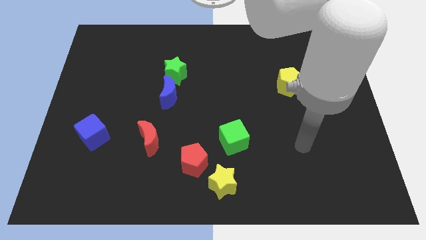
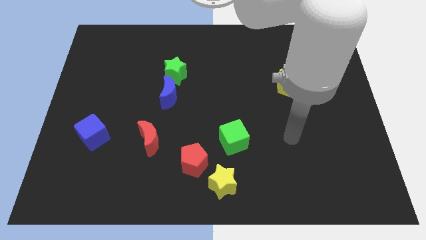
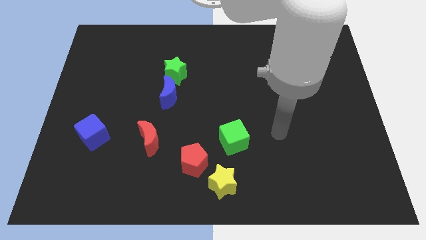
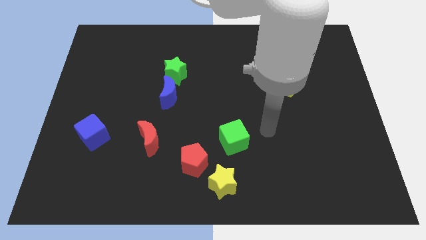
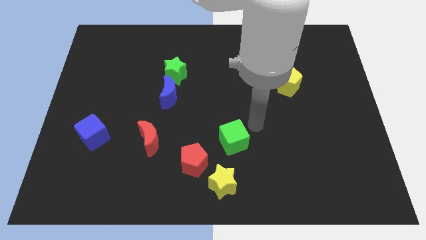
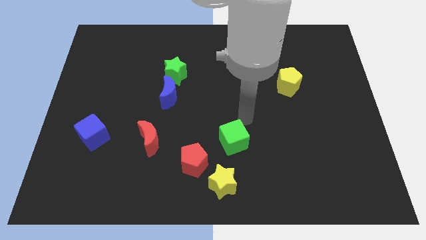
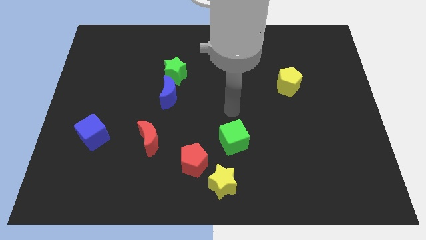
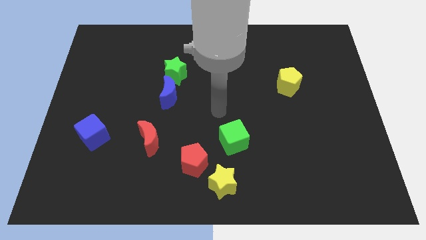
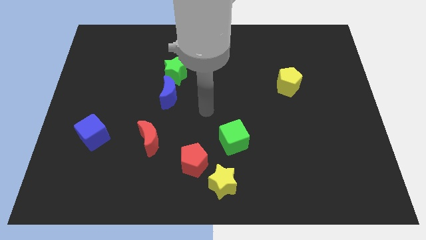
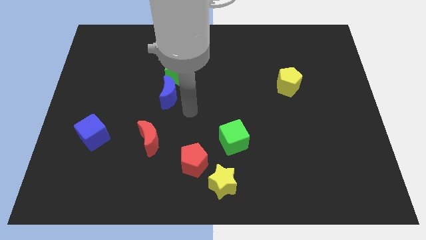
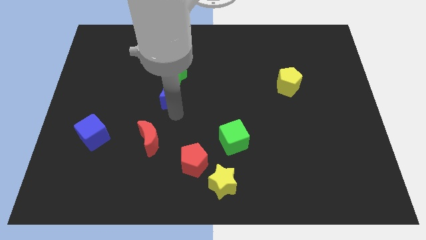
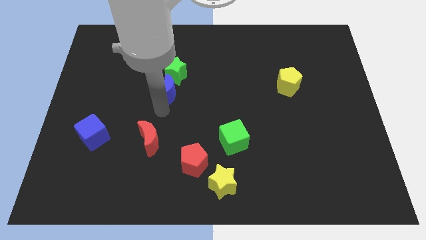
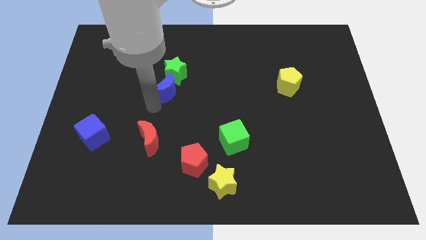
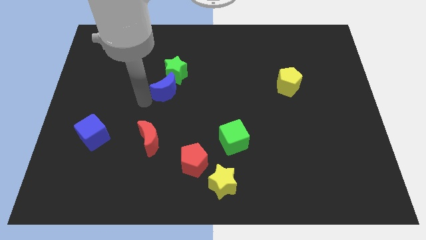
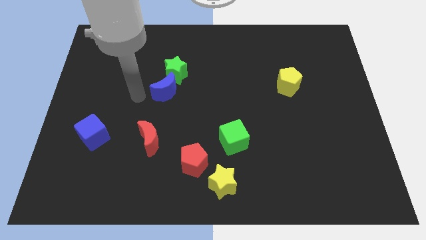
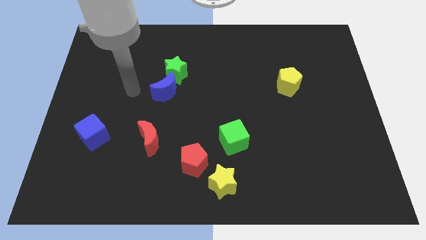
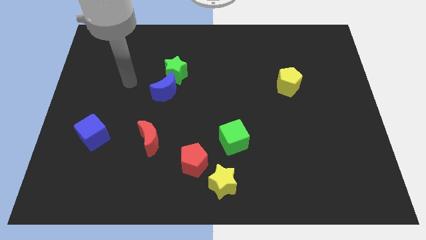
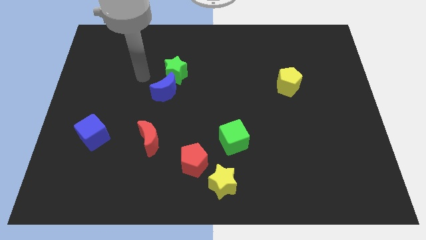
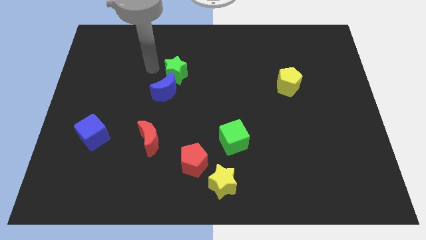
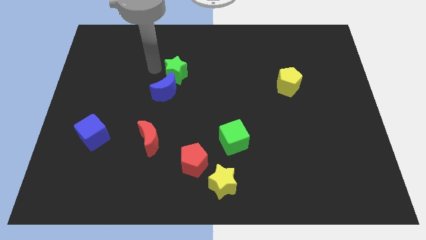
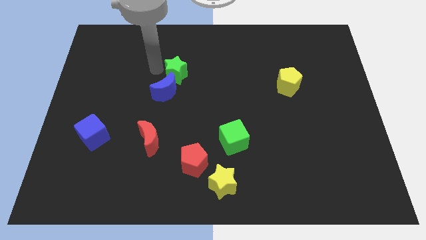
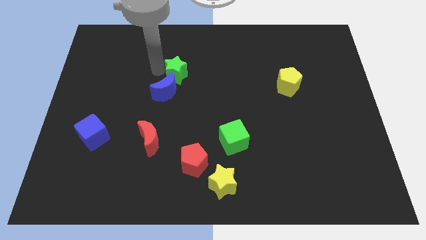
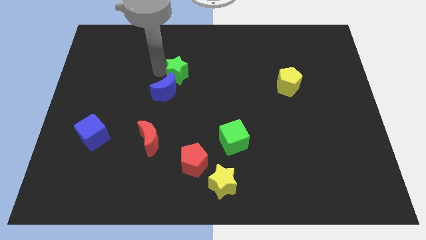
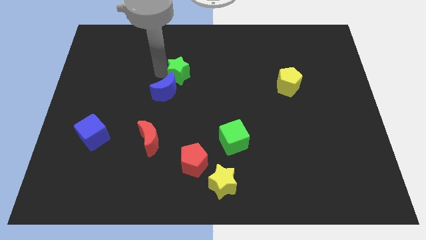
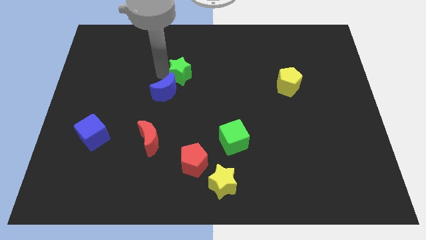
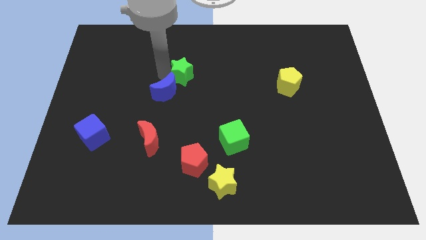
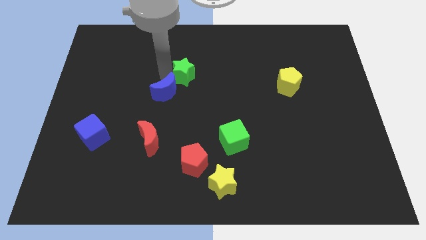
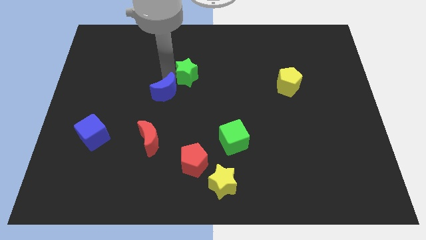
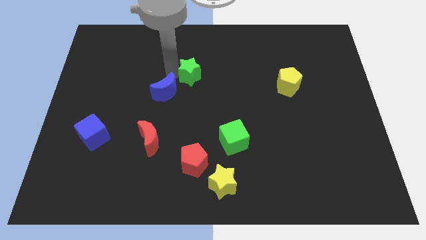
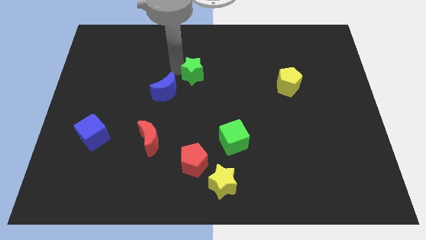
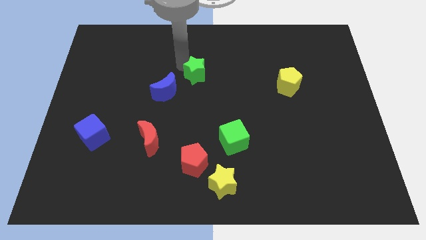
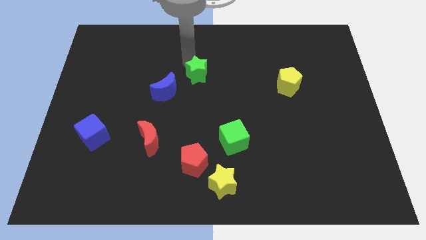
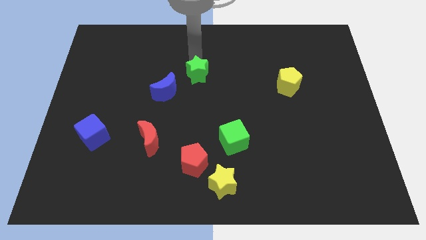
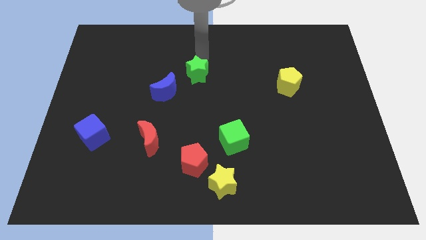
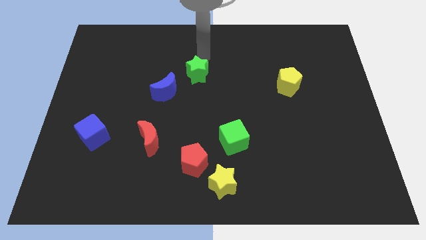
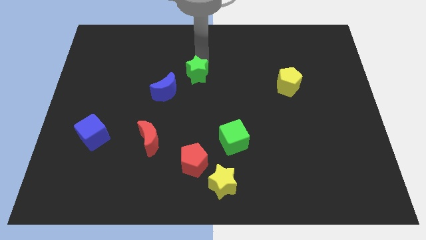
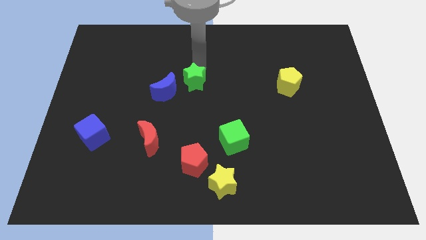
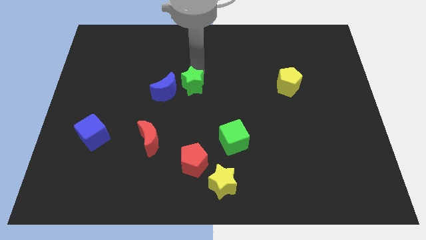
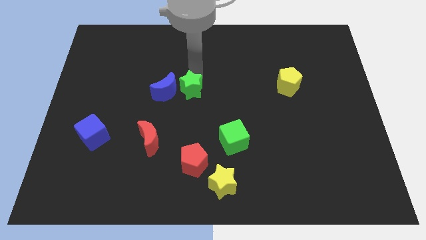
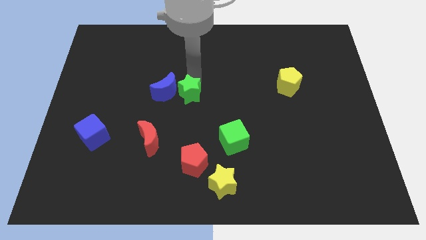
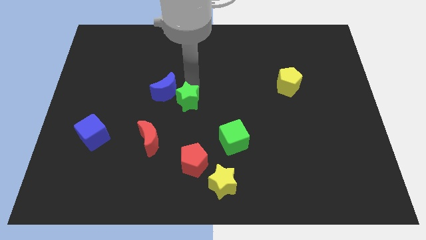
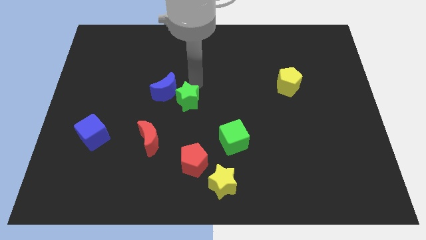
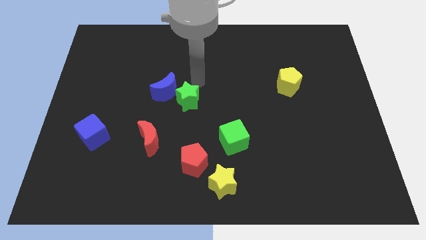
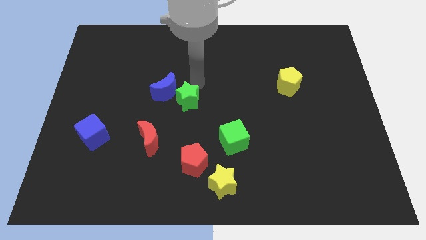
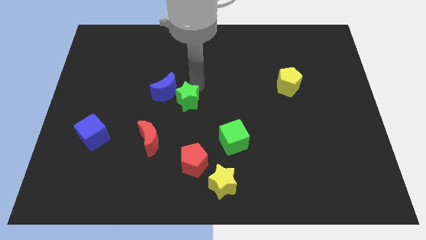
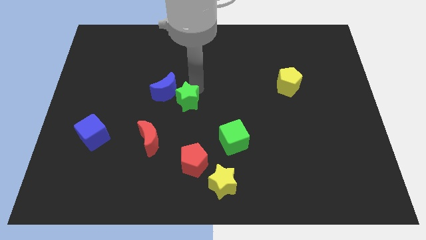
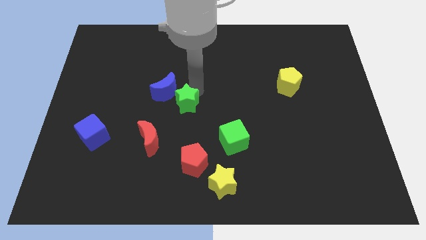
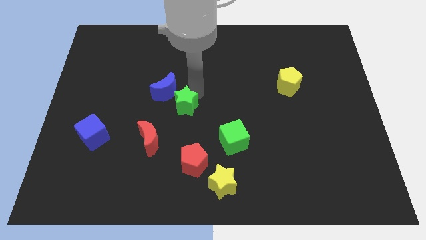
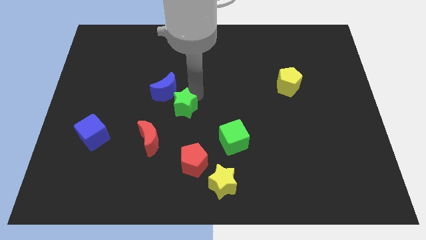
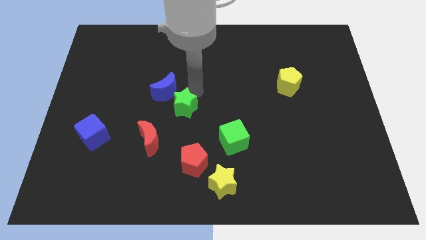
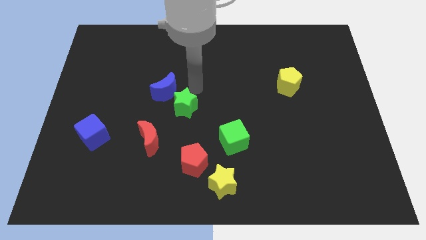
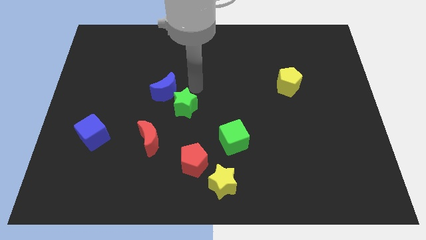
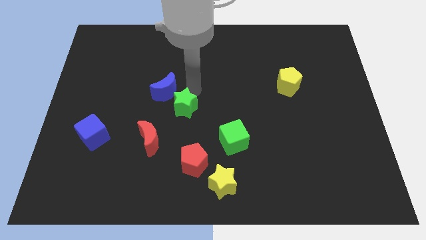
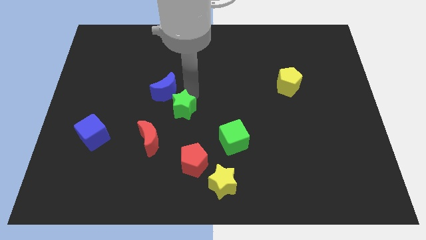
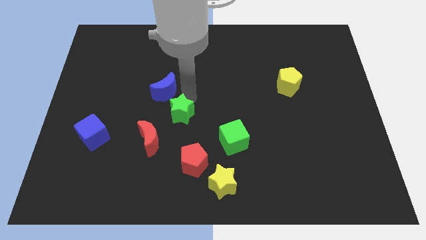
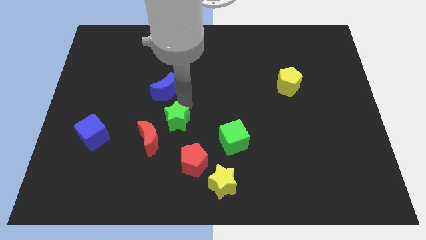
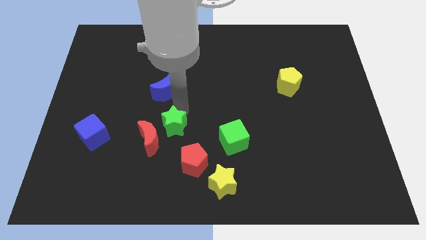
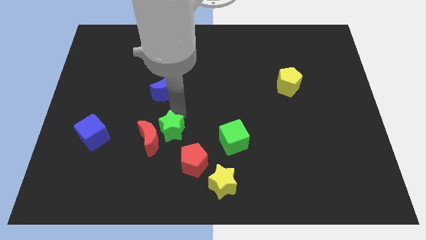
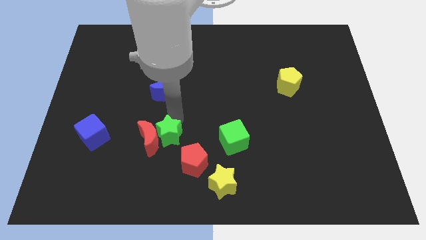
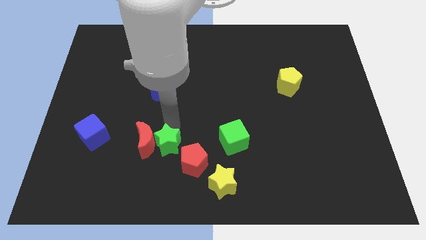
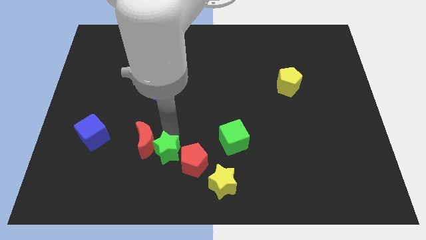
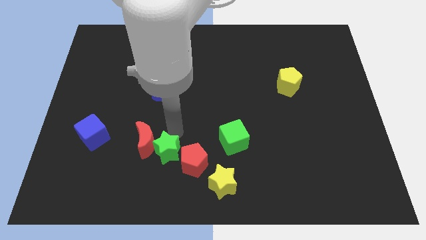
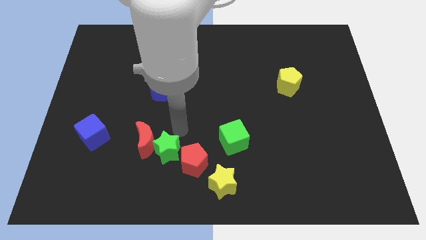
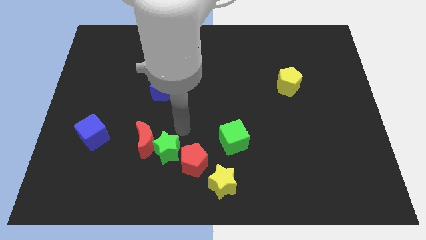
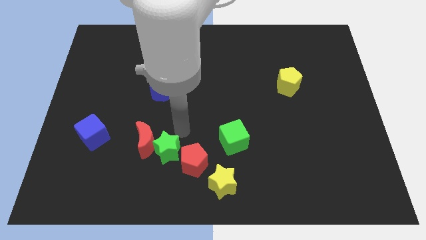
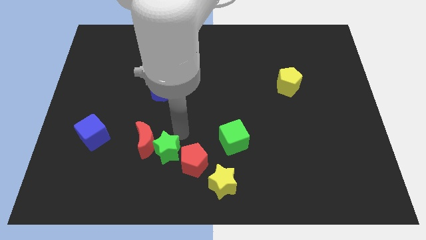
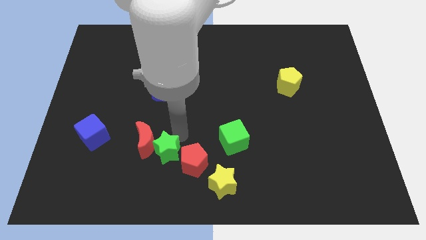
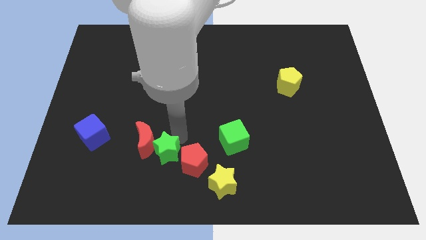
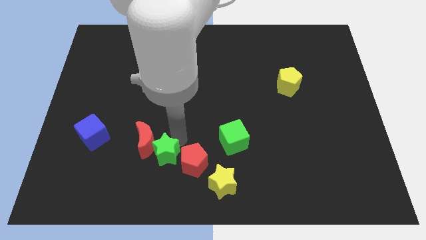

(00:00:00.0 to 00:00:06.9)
put the green star to the bottom side of the red moon
